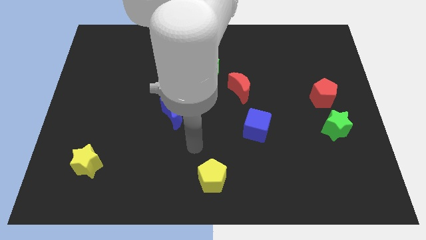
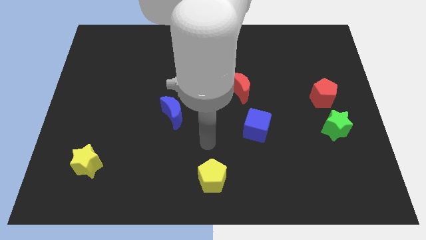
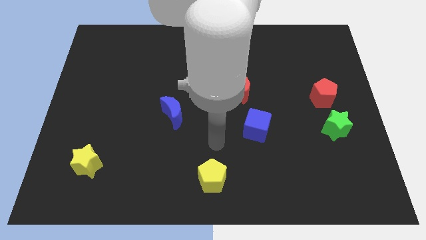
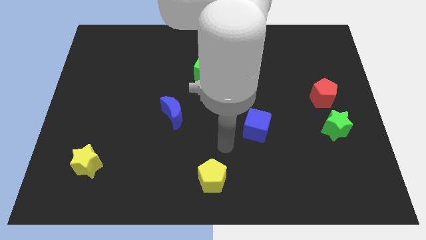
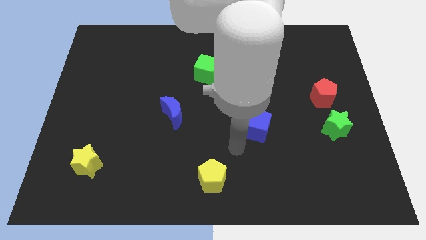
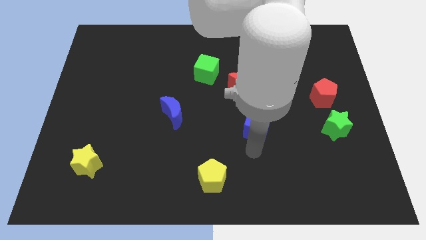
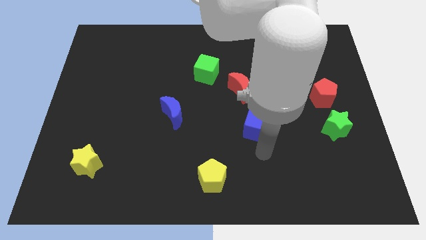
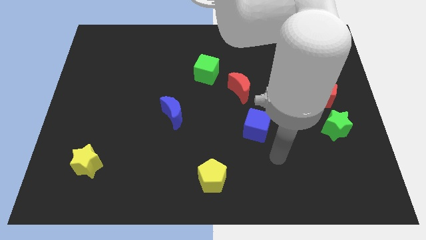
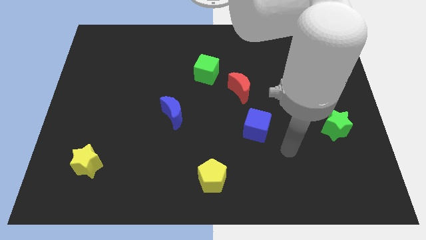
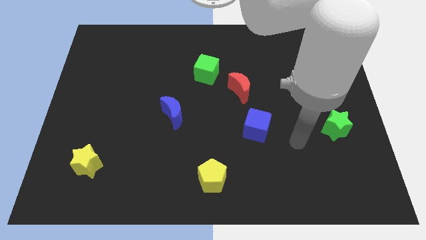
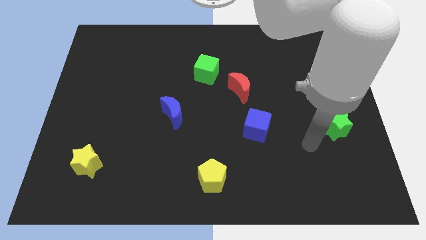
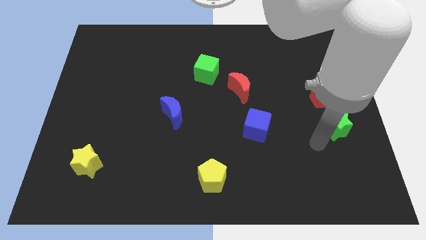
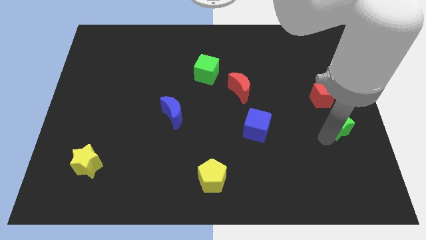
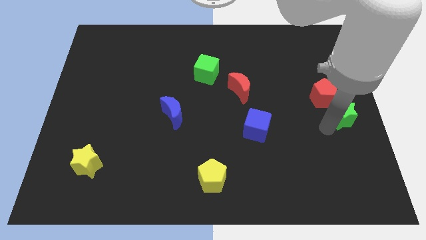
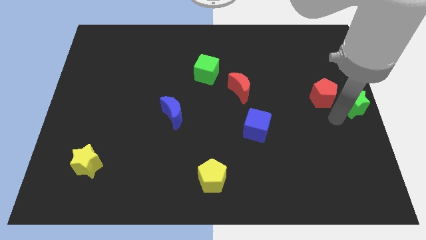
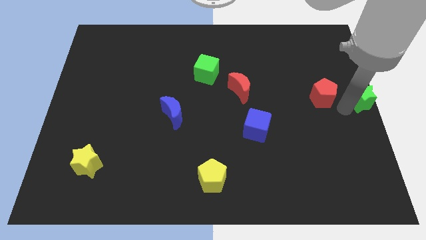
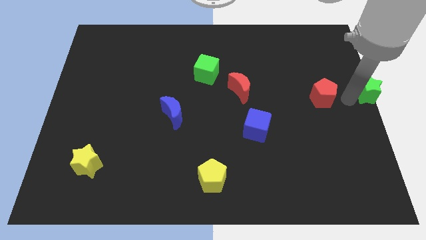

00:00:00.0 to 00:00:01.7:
move the red pentagon away from the green star

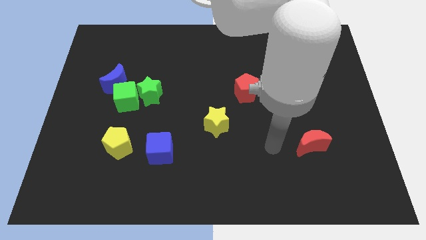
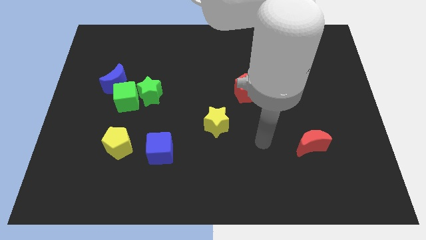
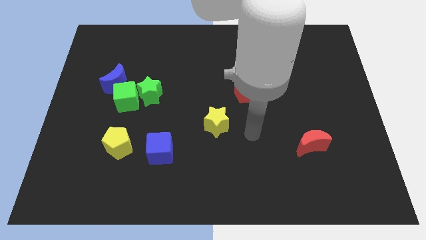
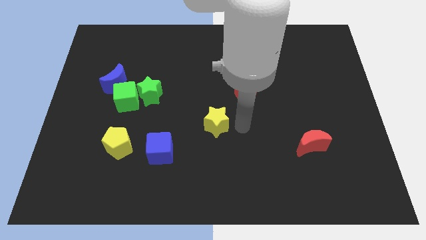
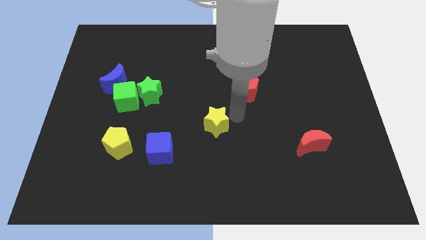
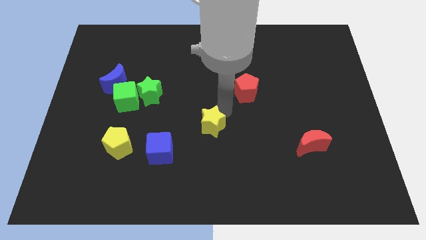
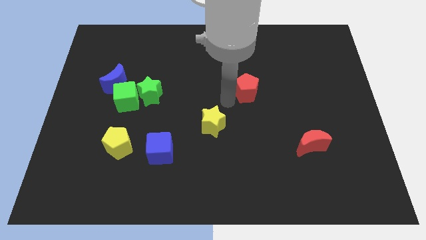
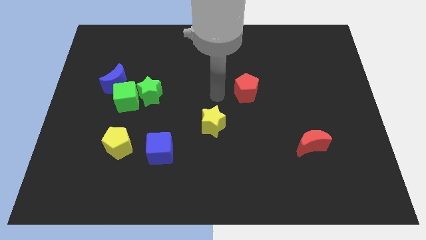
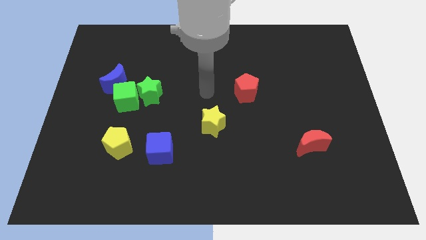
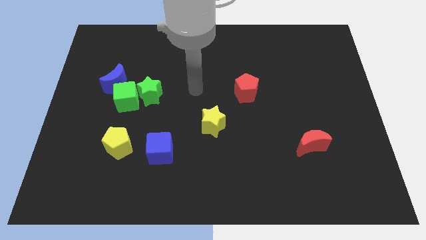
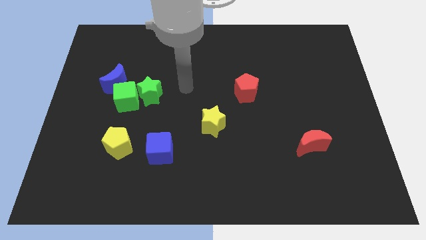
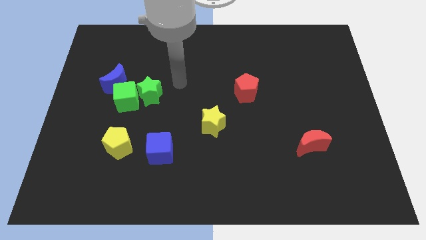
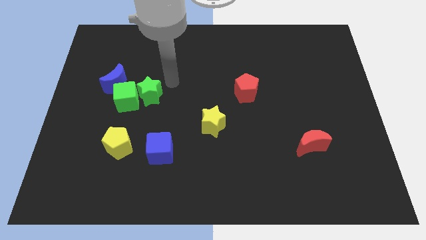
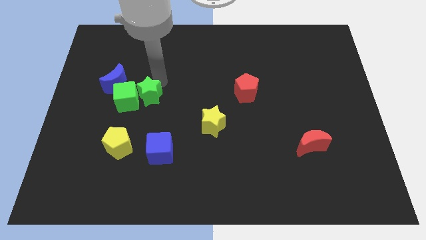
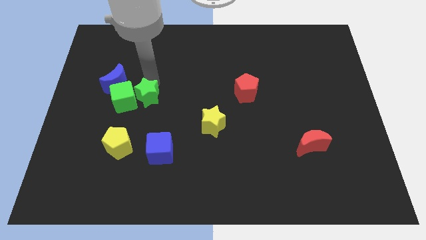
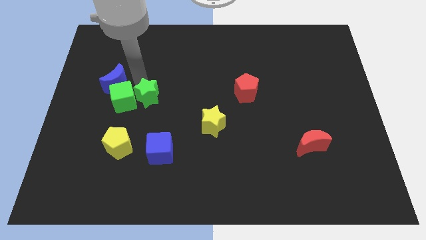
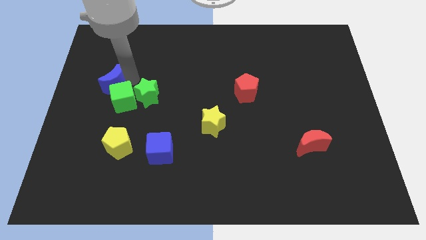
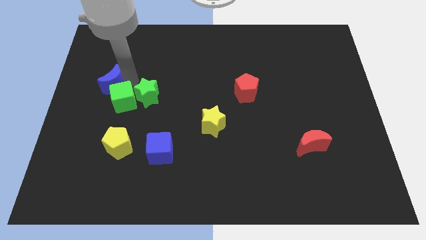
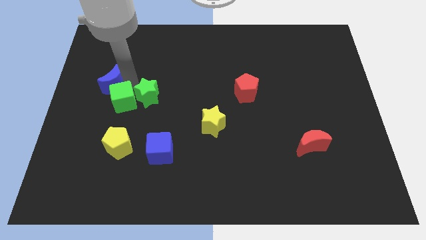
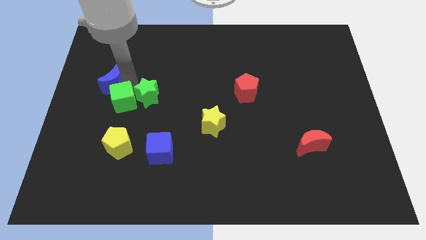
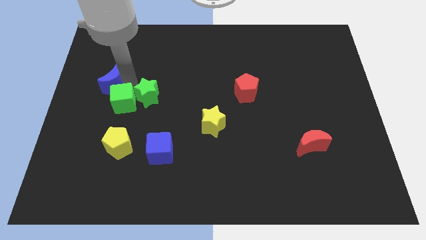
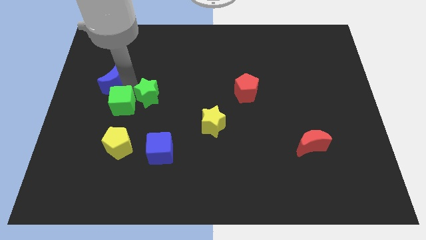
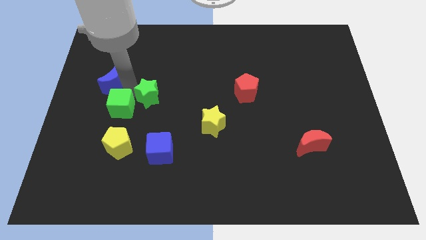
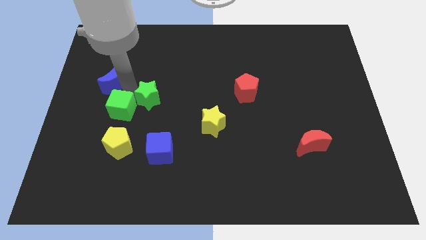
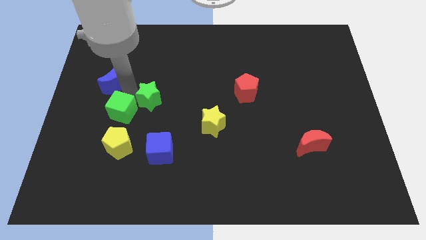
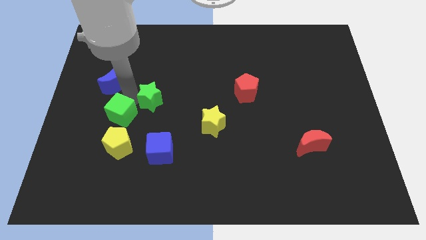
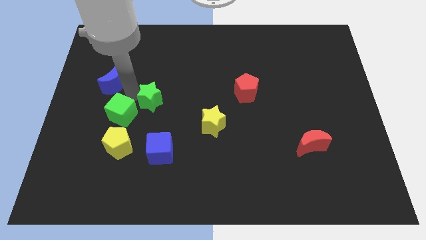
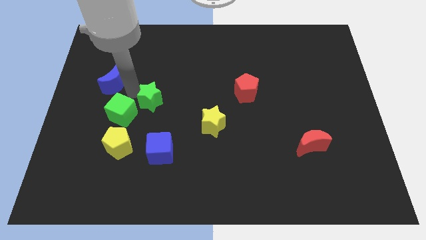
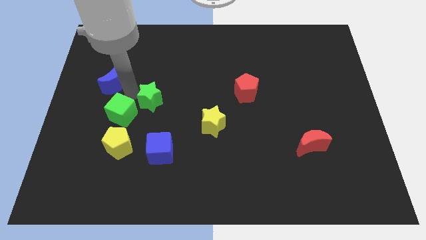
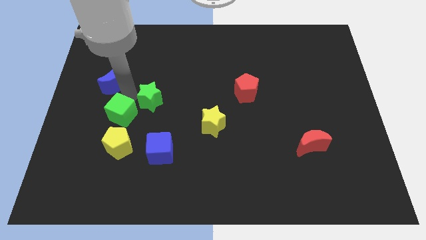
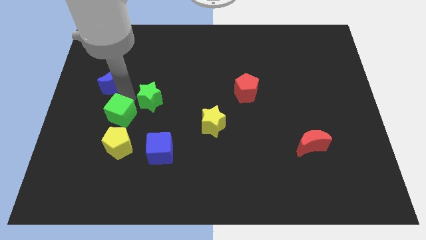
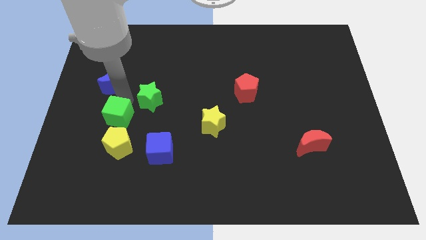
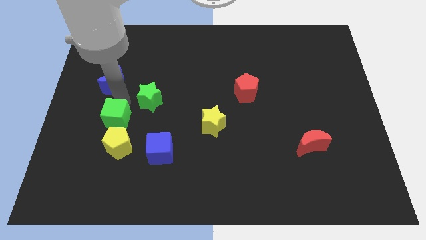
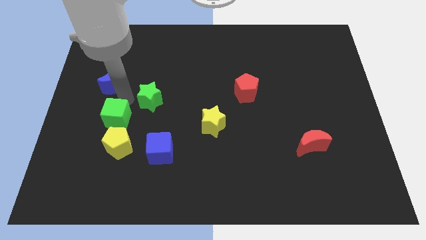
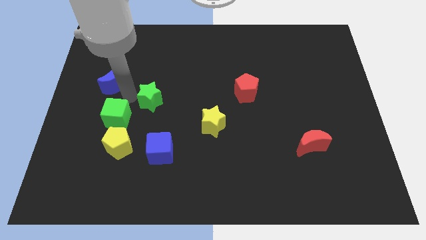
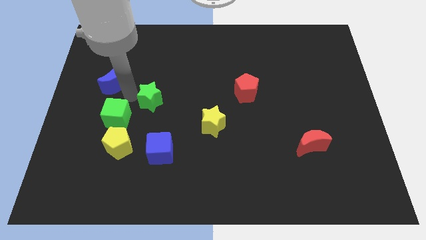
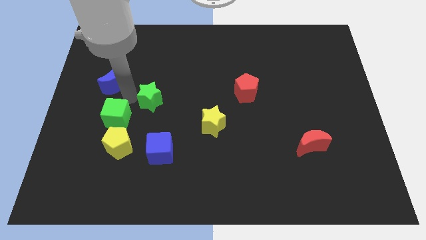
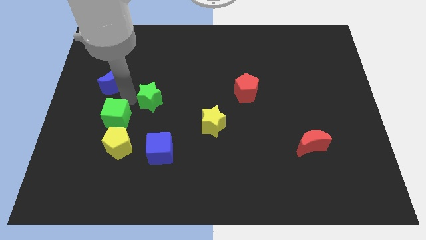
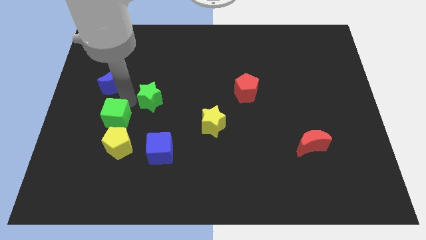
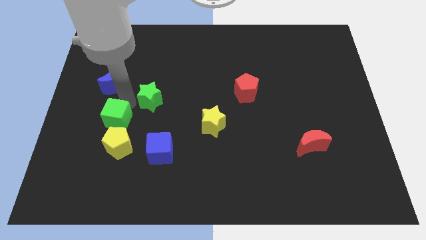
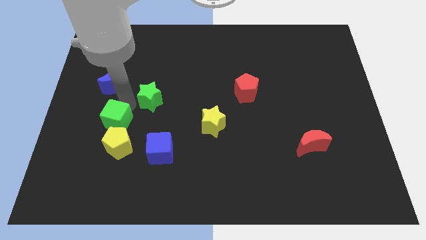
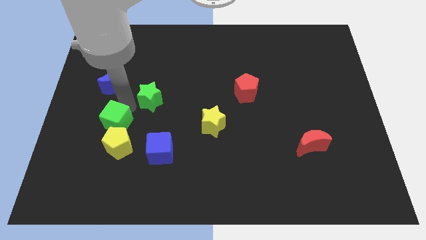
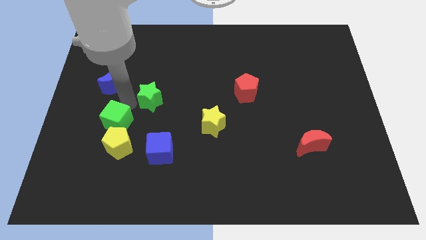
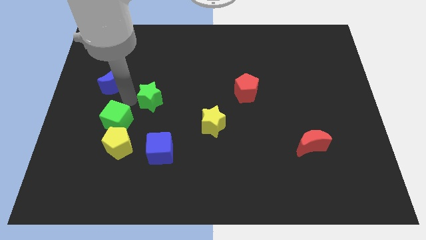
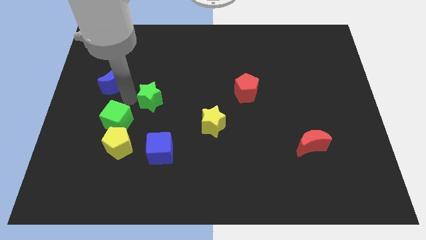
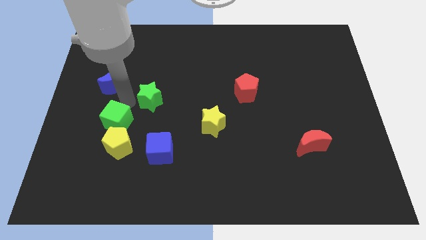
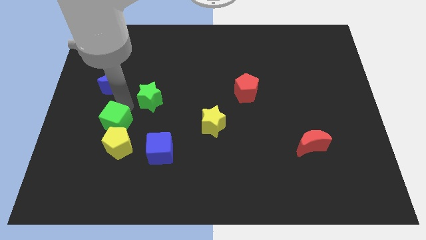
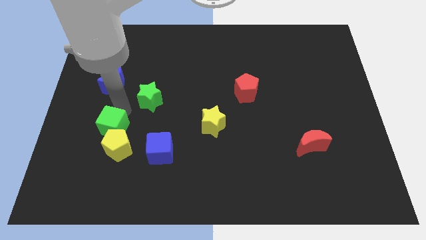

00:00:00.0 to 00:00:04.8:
move the green cube away from the green star and blue moon

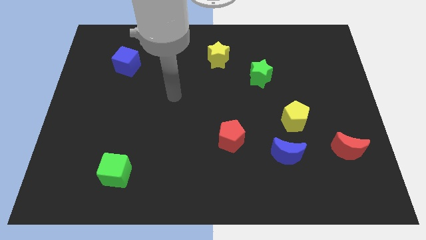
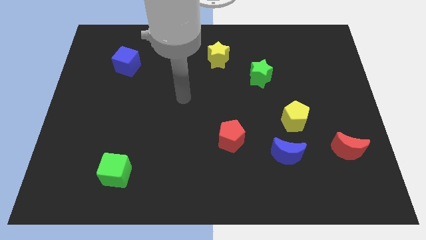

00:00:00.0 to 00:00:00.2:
separate the blue moon from the yellow pentagon

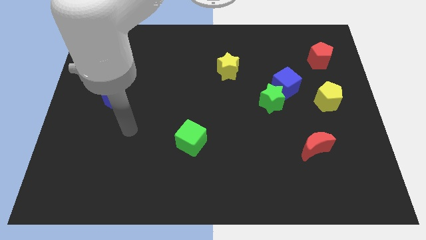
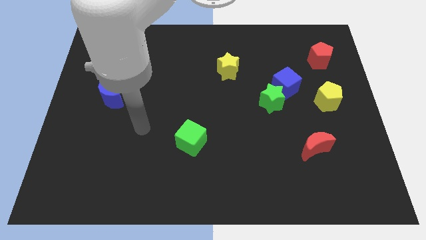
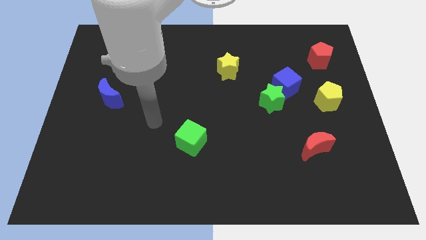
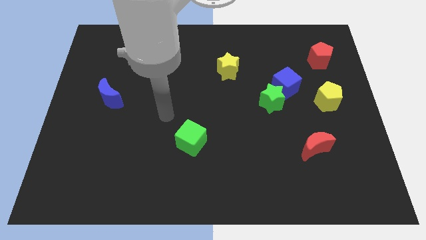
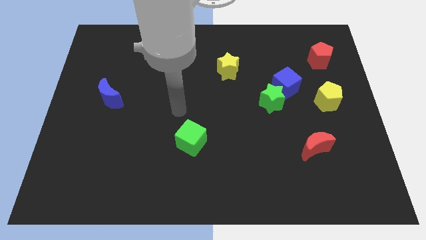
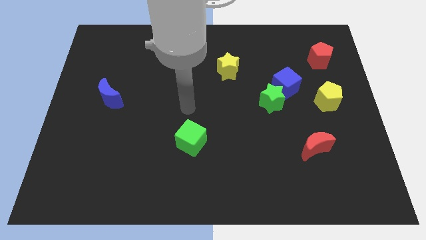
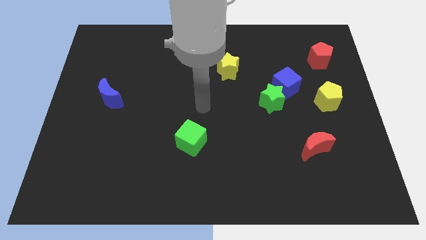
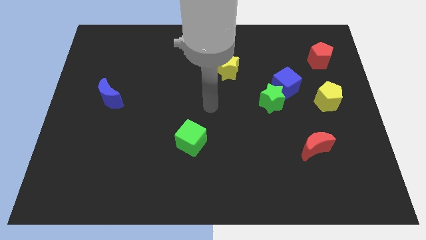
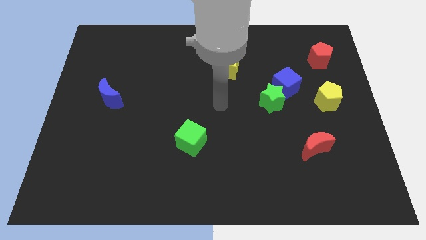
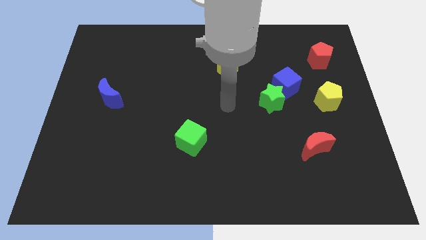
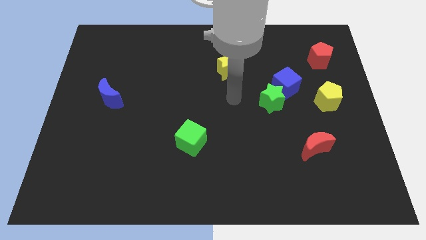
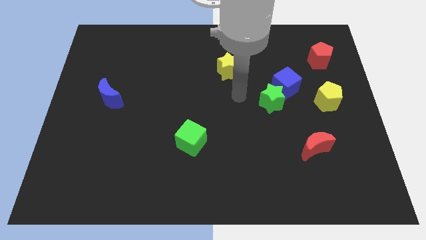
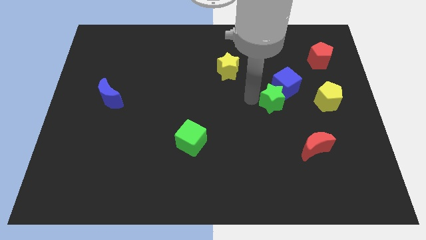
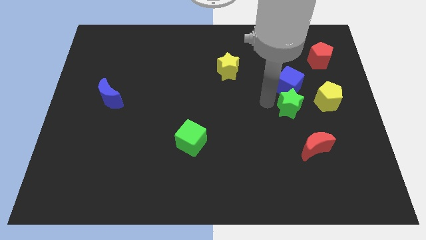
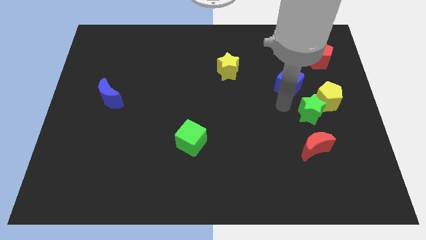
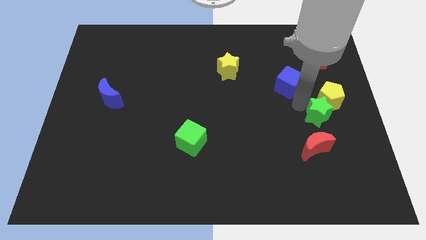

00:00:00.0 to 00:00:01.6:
separate the blue cube from the green star

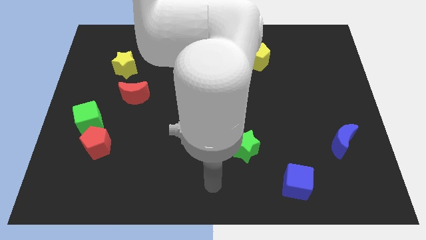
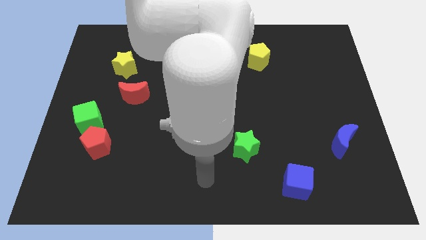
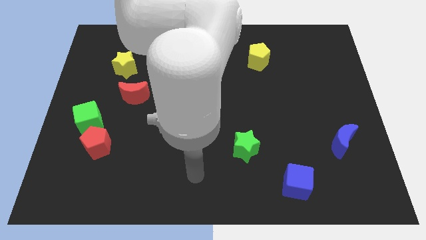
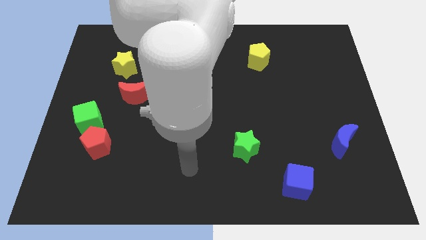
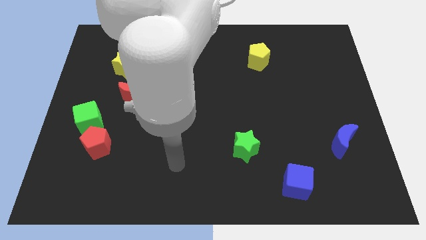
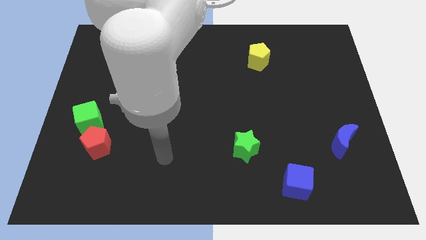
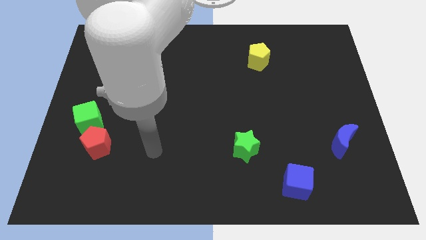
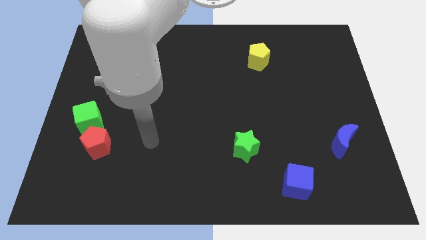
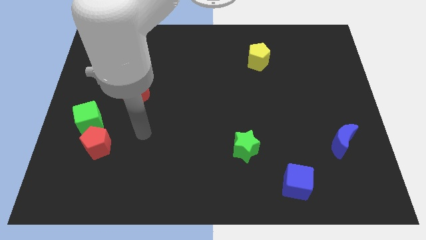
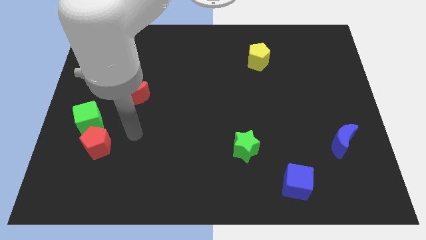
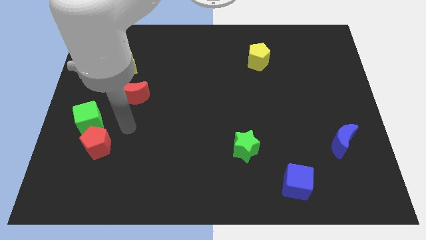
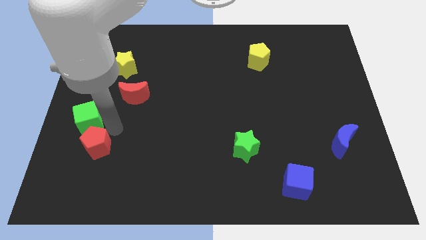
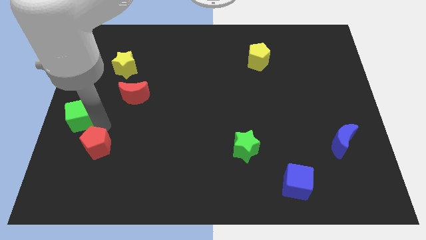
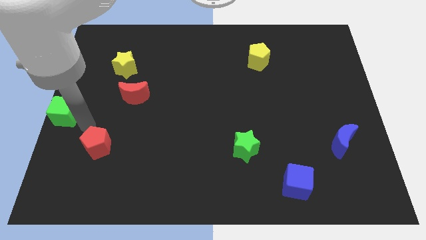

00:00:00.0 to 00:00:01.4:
move the red pentagon away from the green cube
